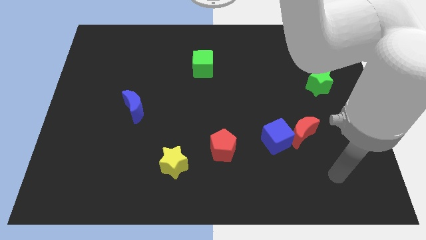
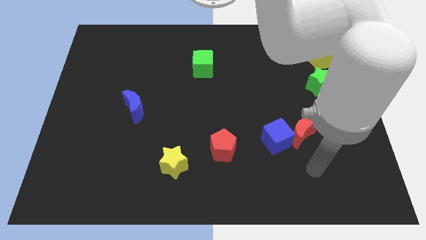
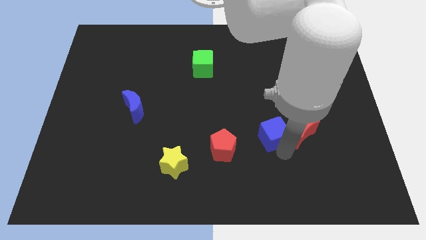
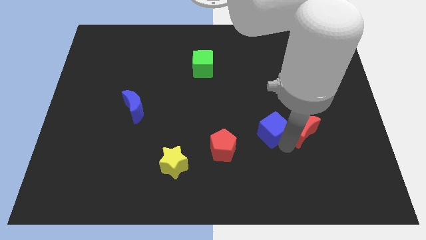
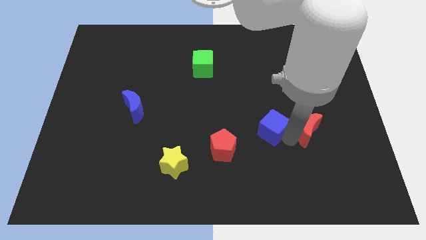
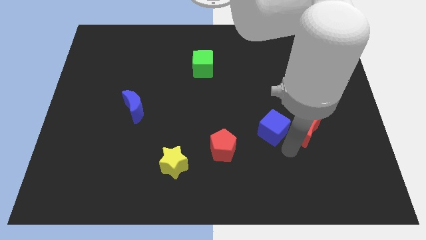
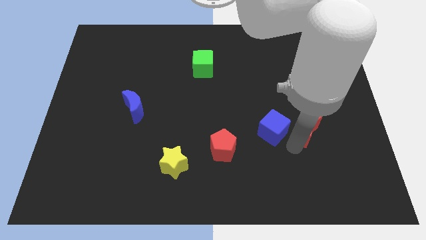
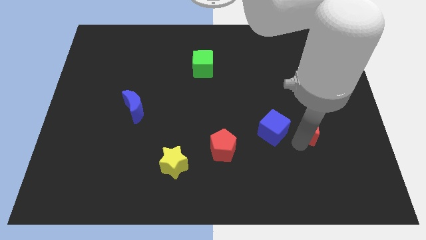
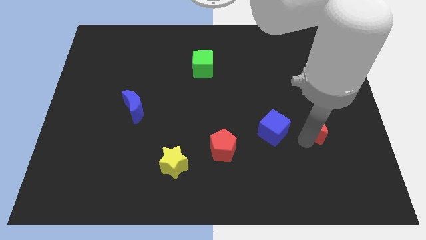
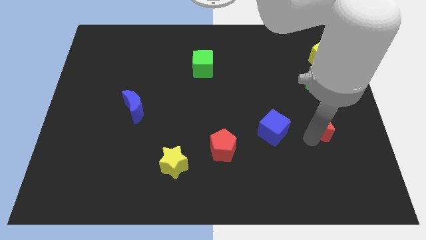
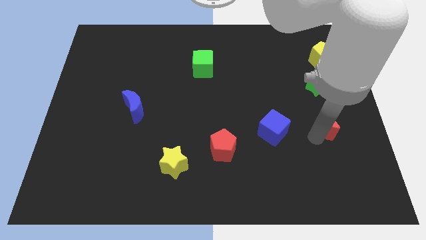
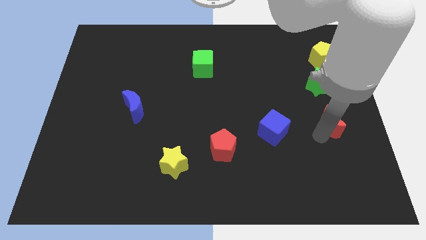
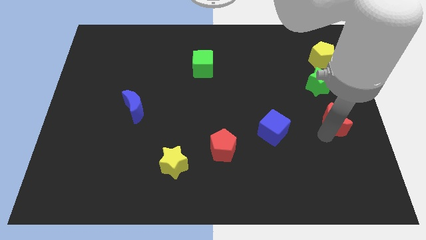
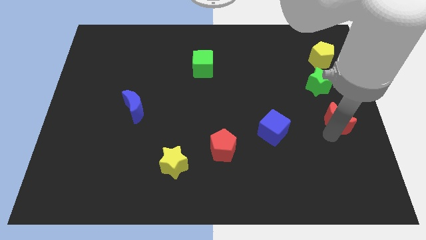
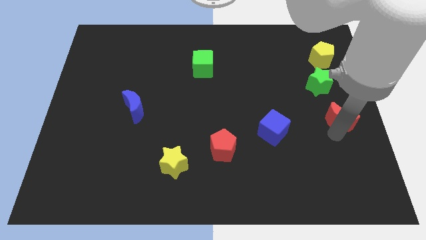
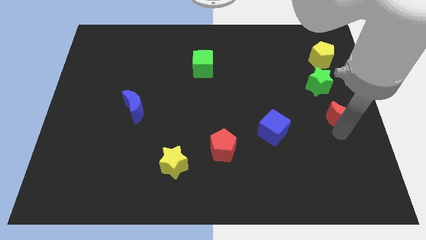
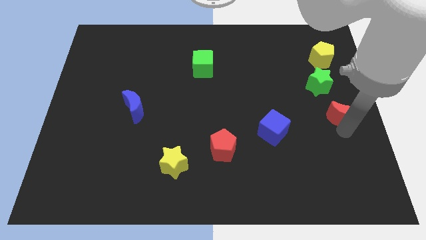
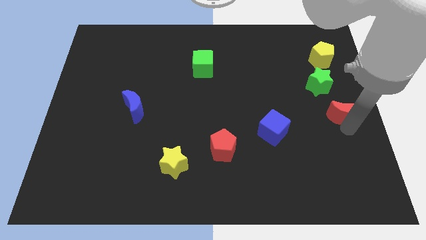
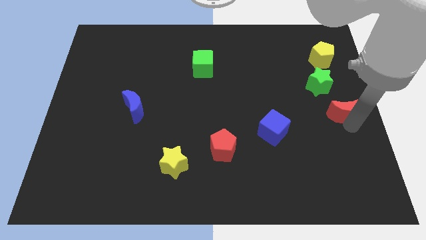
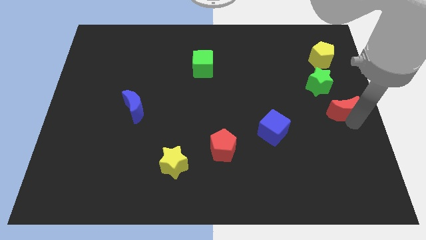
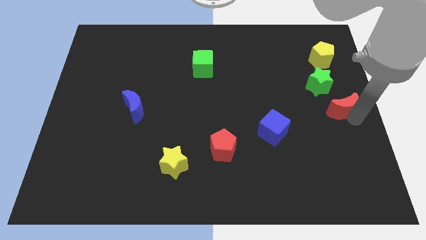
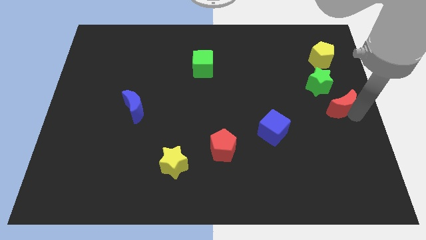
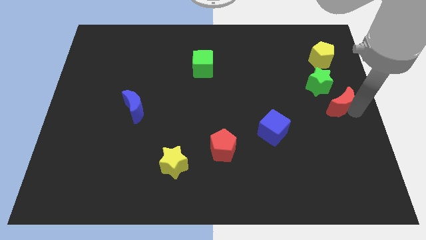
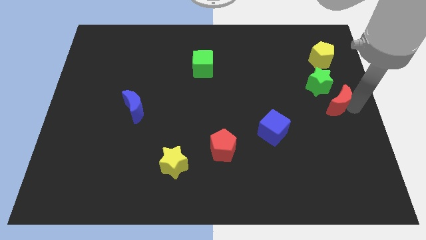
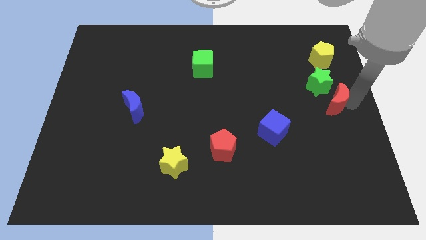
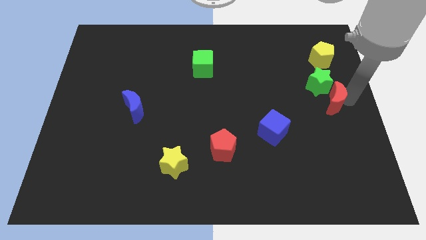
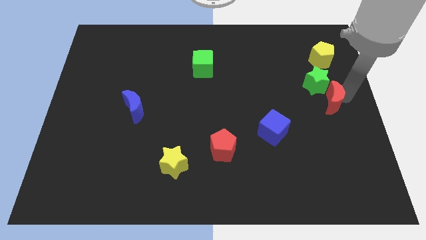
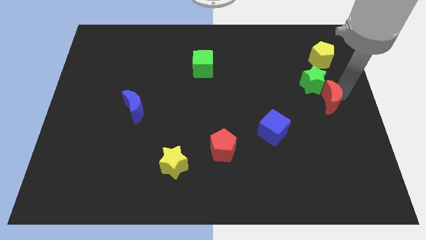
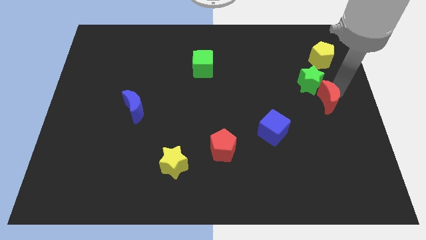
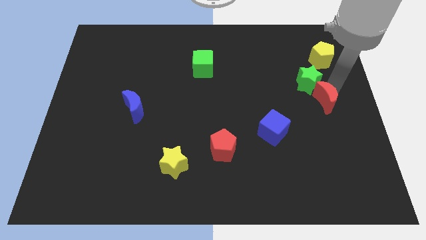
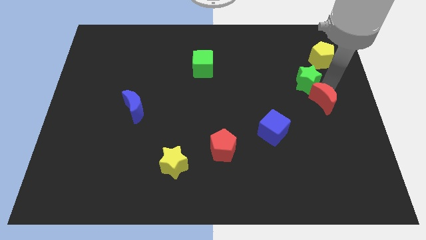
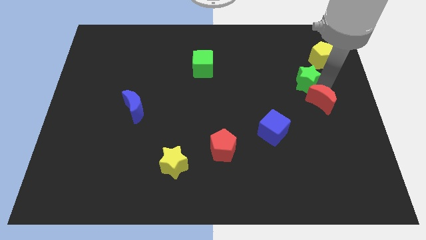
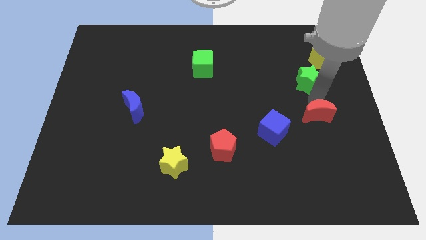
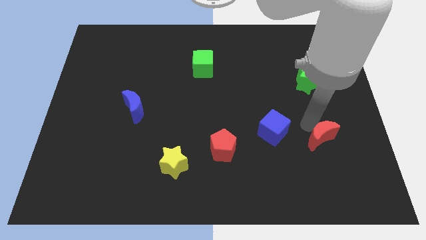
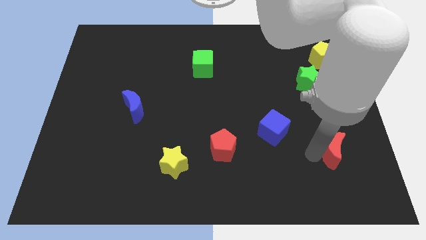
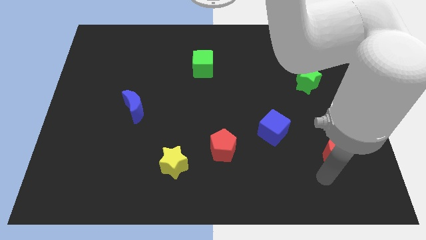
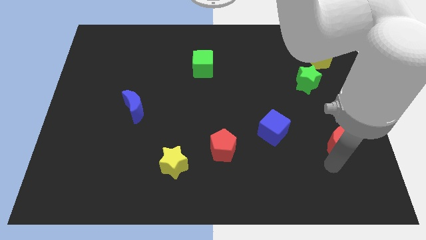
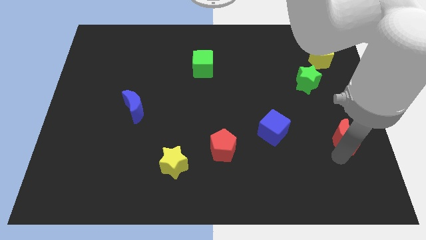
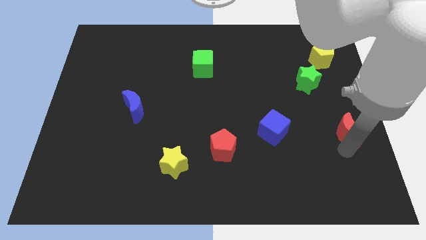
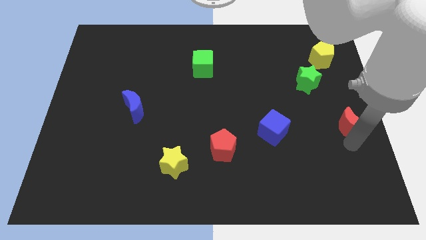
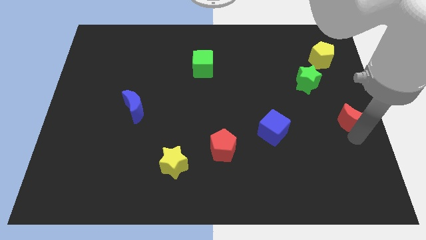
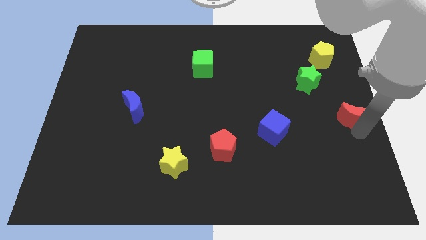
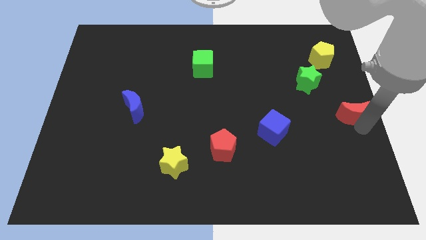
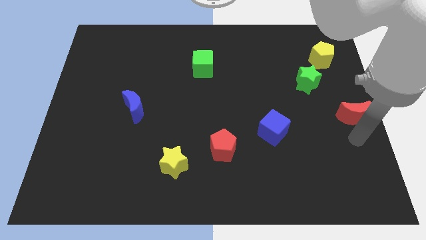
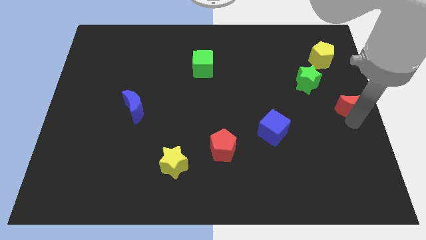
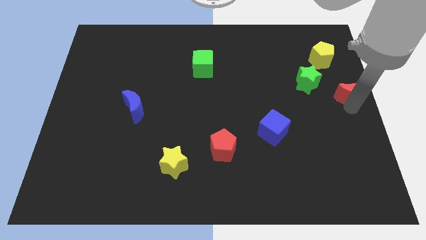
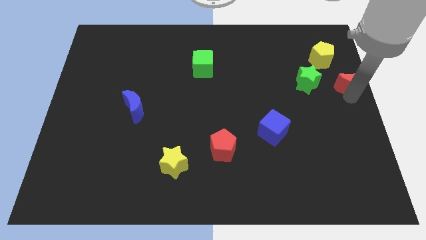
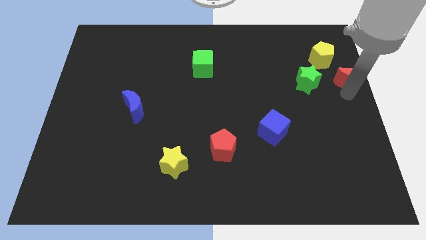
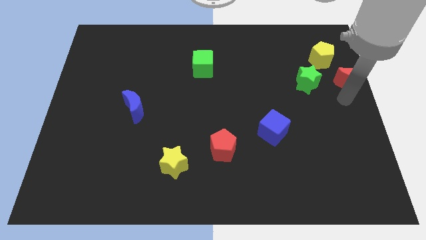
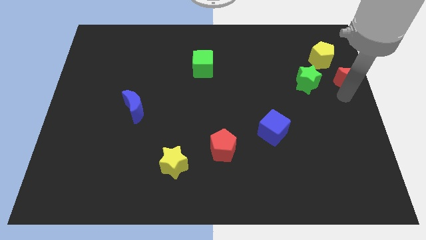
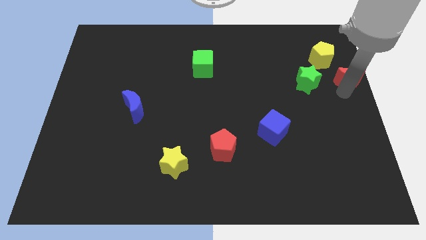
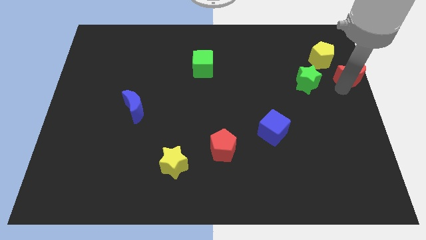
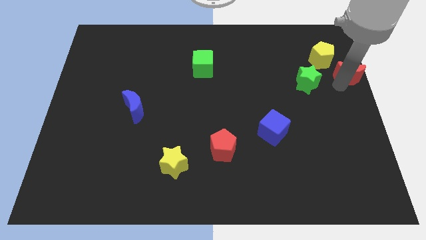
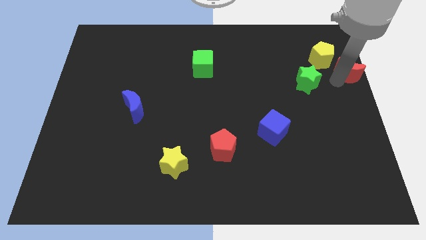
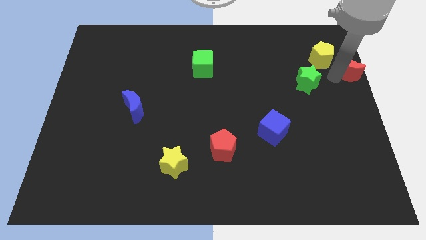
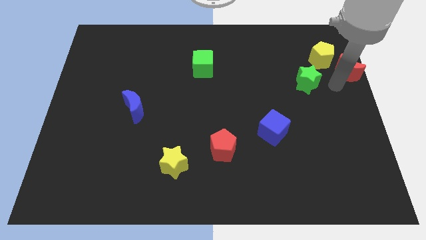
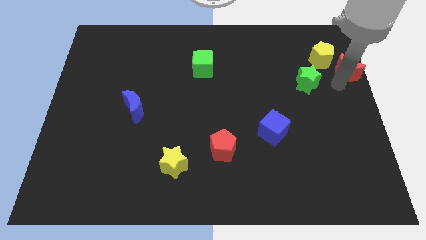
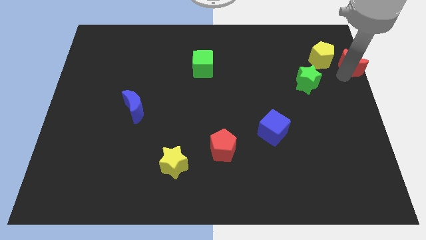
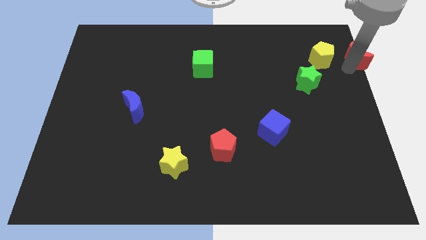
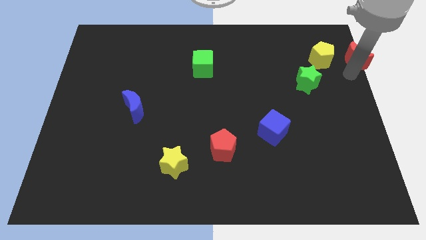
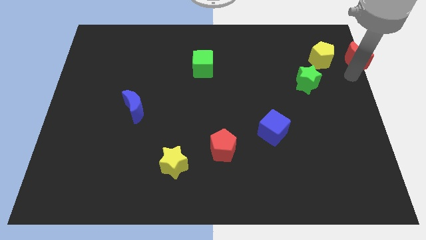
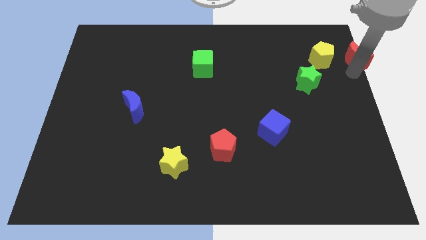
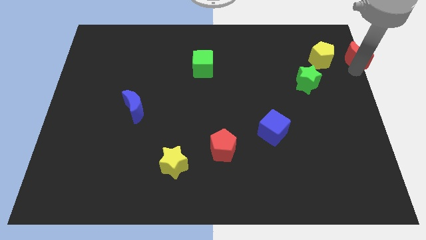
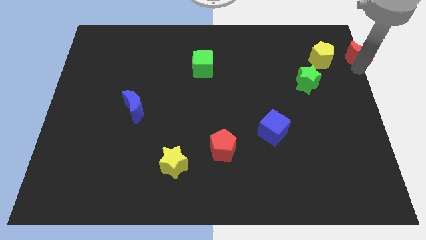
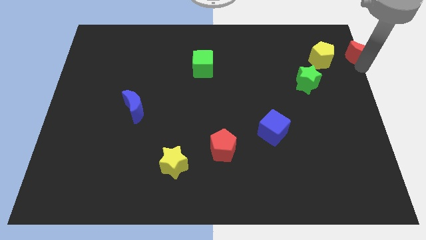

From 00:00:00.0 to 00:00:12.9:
slide the red moon to the top right of the board
